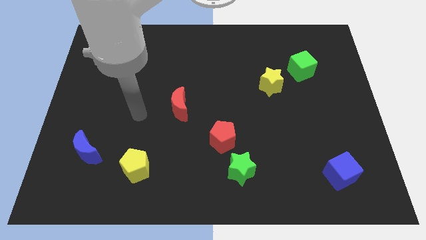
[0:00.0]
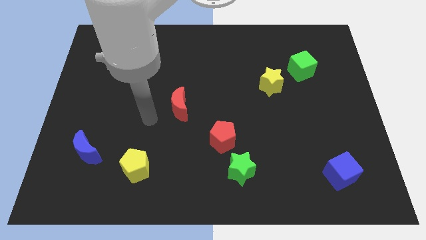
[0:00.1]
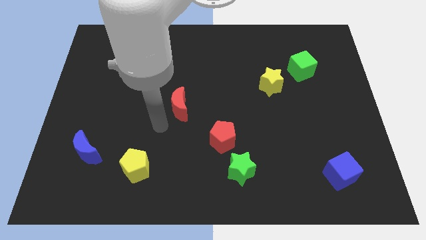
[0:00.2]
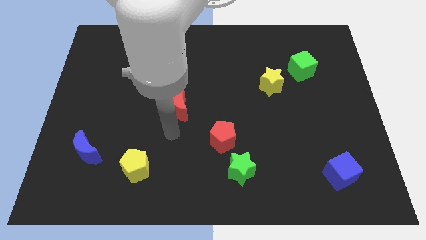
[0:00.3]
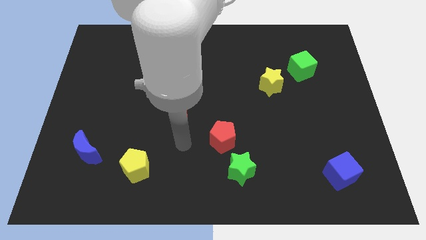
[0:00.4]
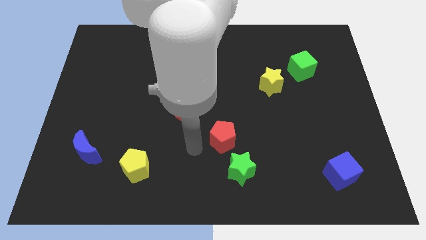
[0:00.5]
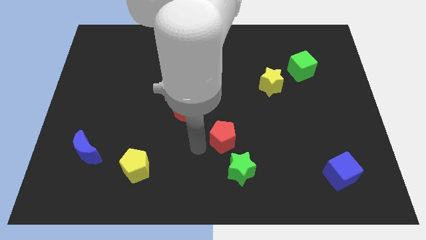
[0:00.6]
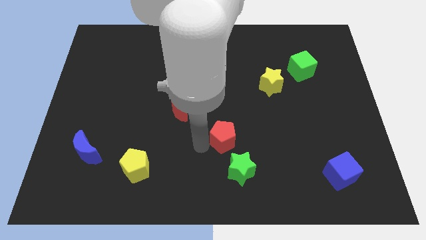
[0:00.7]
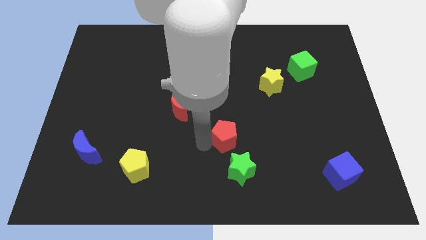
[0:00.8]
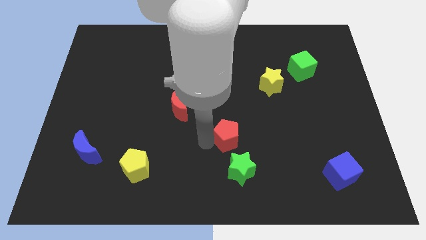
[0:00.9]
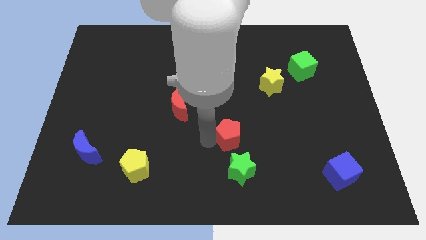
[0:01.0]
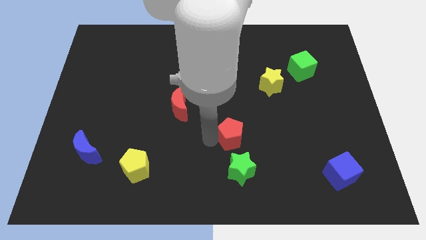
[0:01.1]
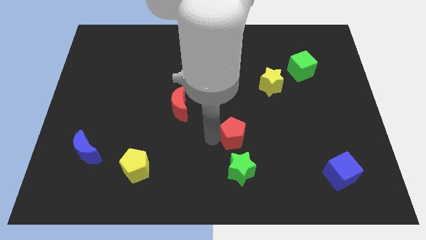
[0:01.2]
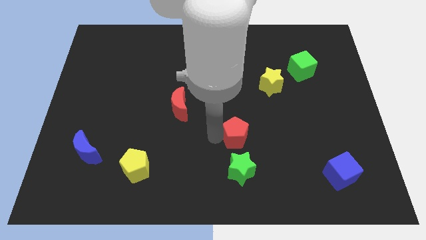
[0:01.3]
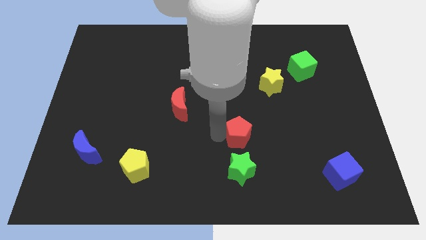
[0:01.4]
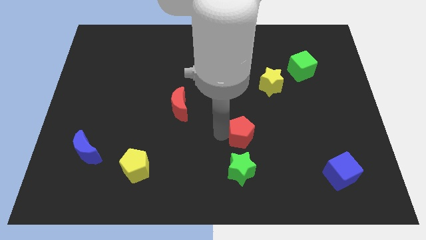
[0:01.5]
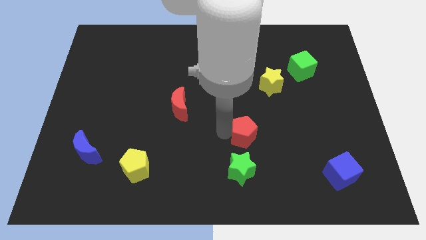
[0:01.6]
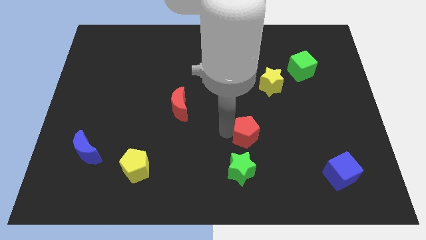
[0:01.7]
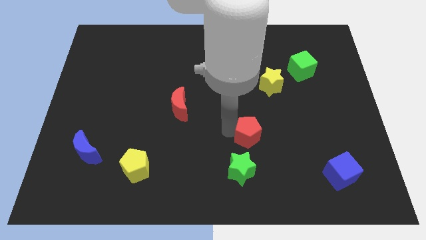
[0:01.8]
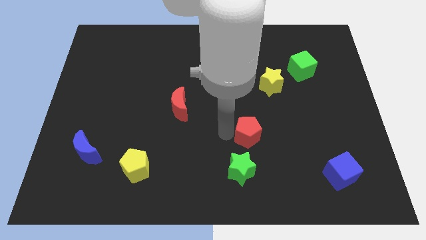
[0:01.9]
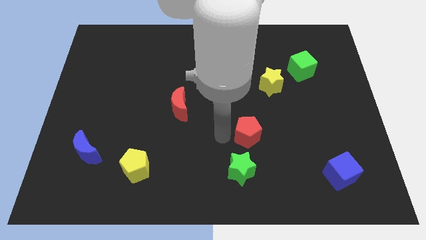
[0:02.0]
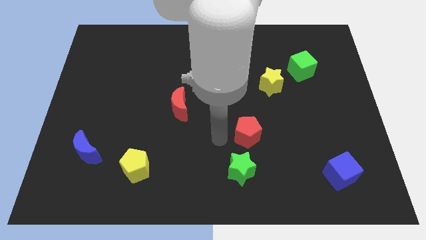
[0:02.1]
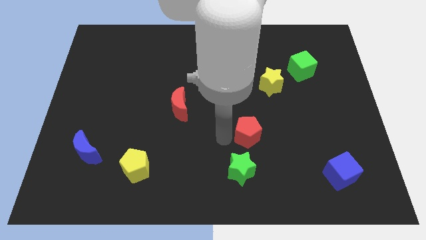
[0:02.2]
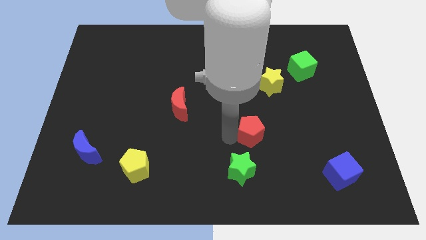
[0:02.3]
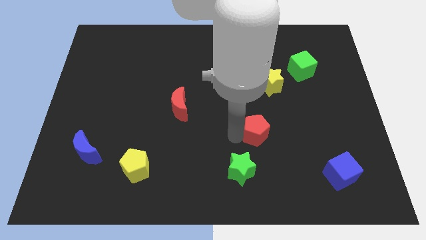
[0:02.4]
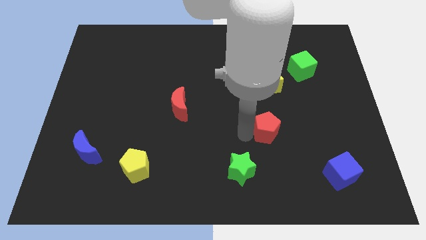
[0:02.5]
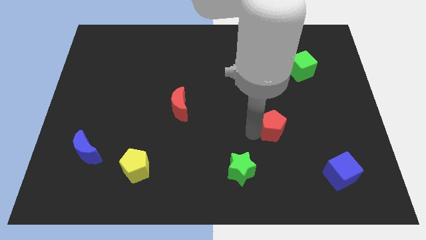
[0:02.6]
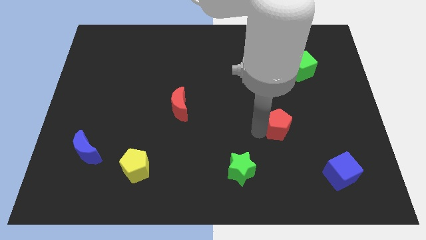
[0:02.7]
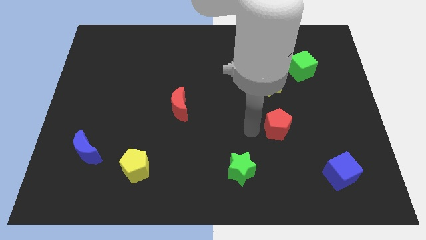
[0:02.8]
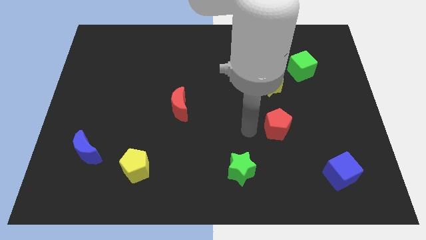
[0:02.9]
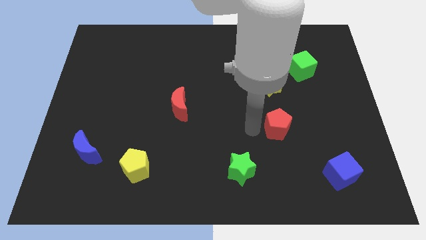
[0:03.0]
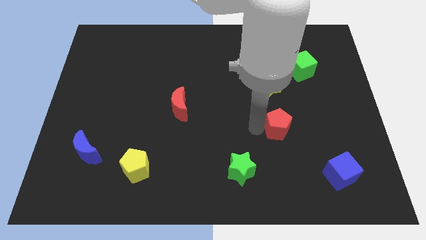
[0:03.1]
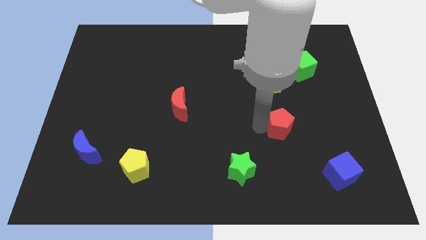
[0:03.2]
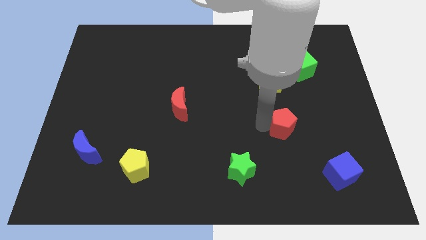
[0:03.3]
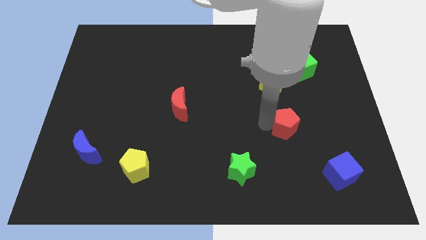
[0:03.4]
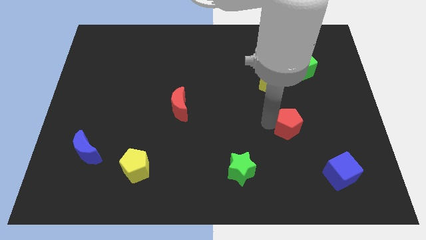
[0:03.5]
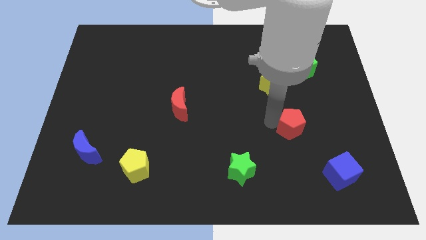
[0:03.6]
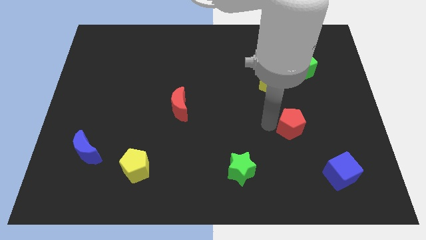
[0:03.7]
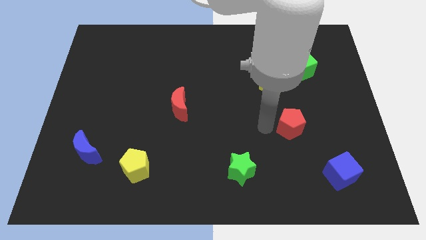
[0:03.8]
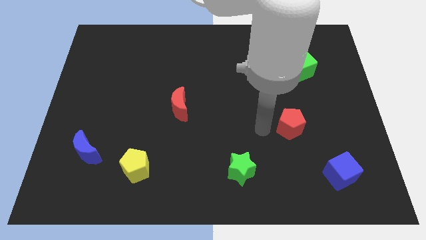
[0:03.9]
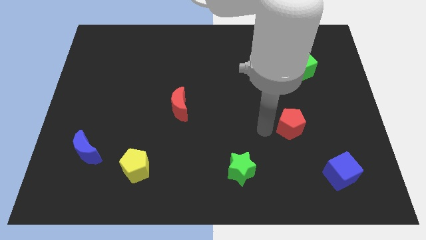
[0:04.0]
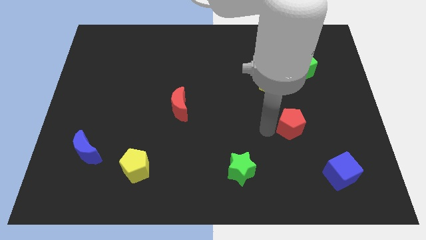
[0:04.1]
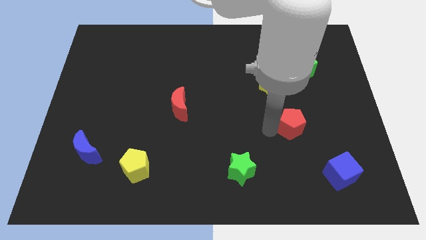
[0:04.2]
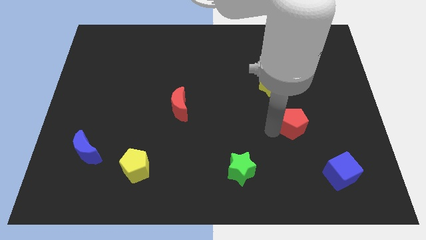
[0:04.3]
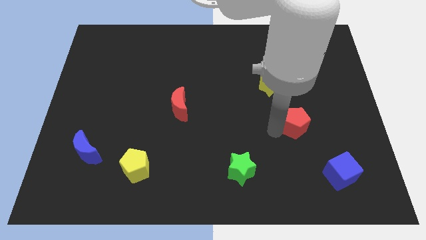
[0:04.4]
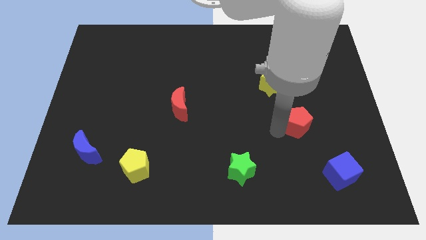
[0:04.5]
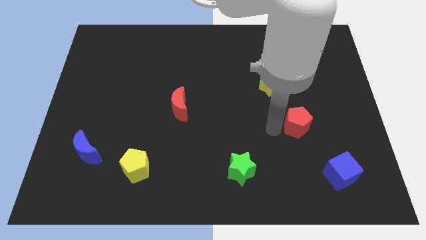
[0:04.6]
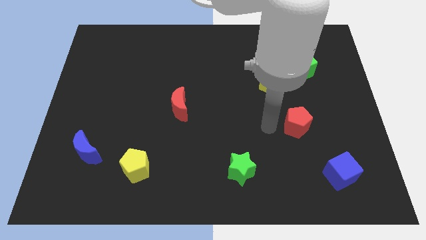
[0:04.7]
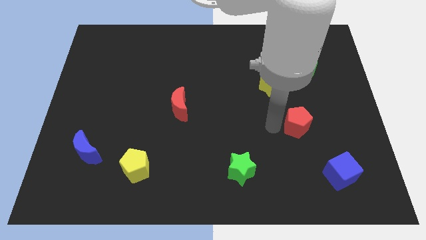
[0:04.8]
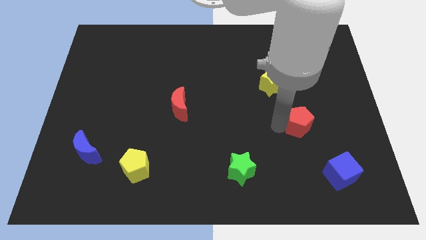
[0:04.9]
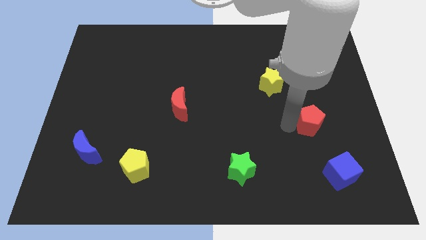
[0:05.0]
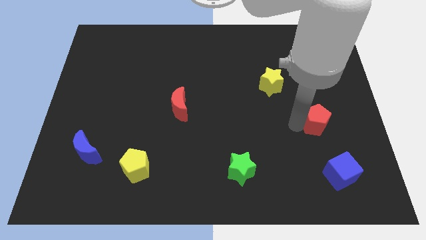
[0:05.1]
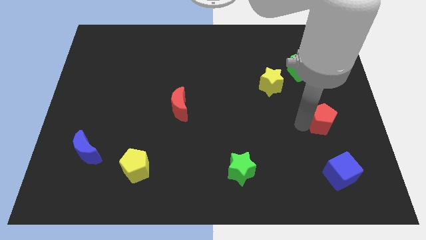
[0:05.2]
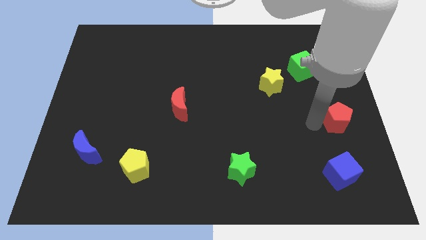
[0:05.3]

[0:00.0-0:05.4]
push the red pentagon to the center right

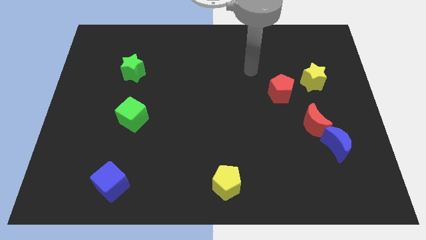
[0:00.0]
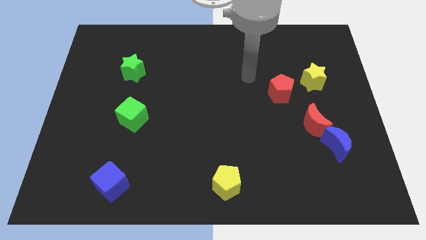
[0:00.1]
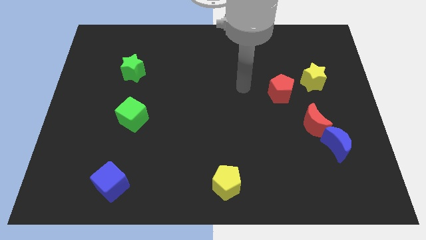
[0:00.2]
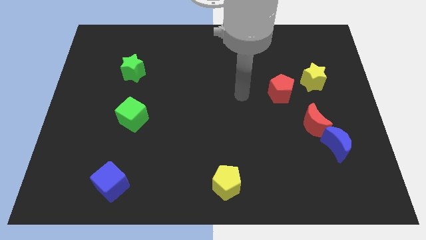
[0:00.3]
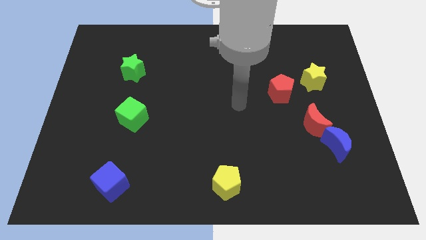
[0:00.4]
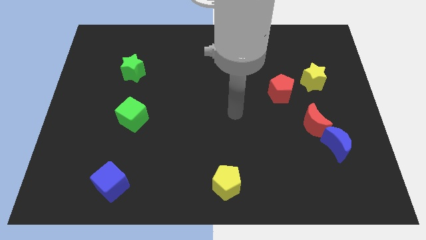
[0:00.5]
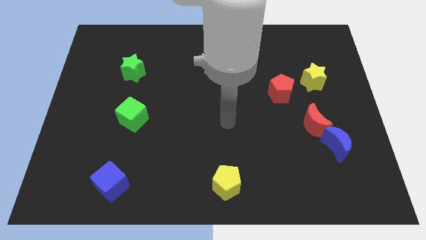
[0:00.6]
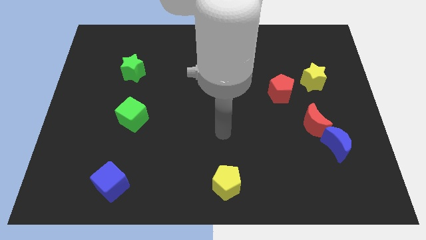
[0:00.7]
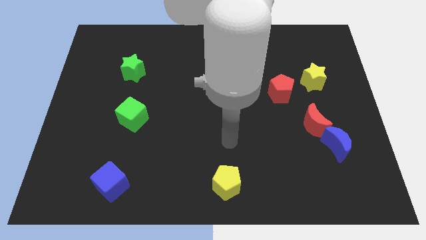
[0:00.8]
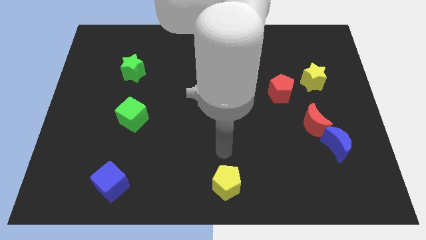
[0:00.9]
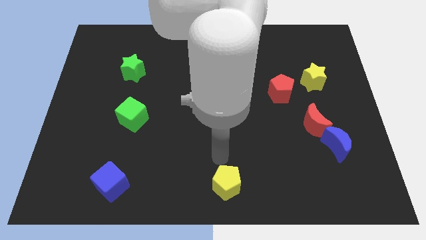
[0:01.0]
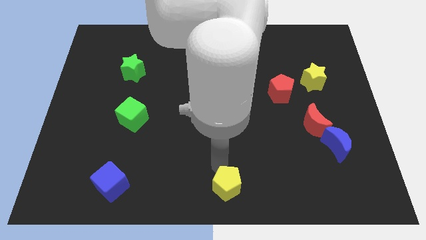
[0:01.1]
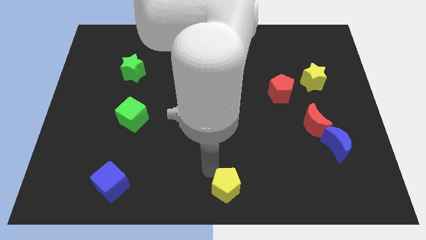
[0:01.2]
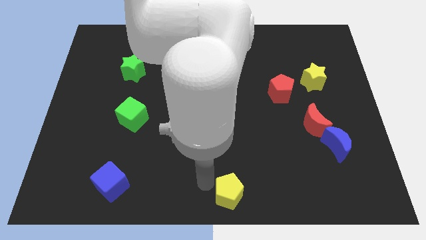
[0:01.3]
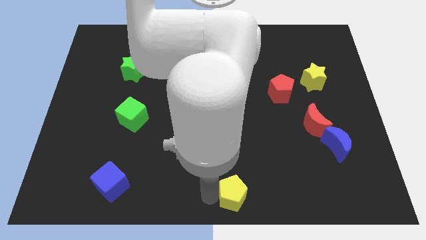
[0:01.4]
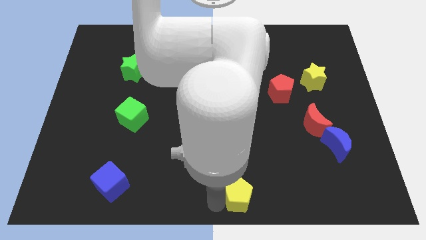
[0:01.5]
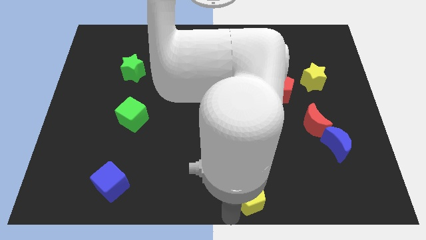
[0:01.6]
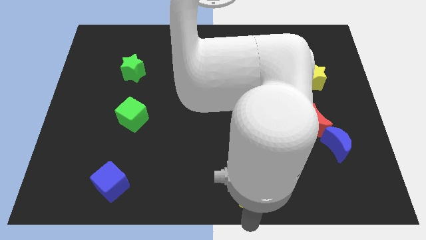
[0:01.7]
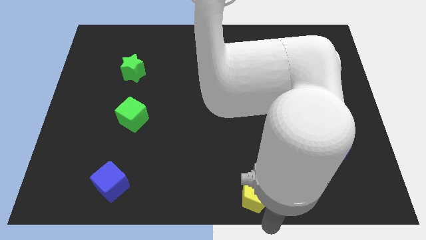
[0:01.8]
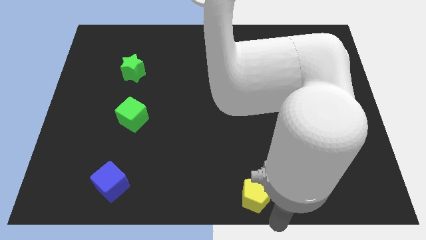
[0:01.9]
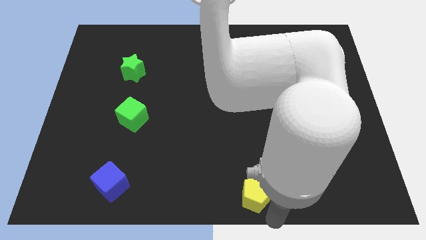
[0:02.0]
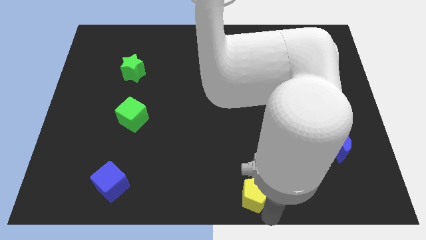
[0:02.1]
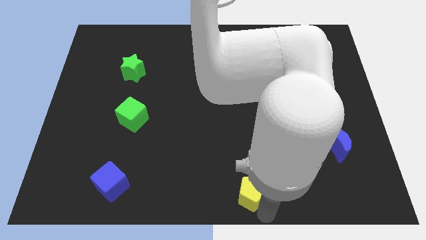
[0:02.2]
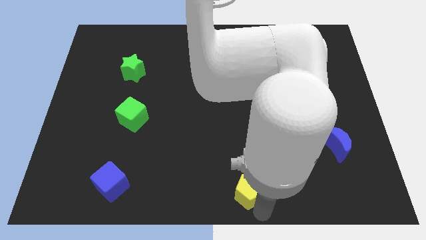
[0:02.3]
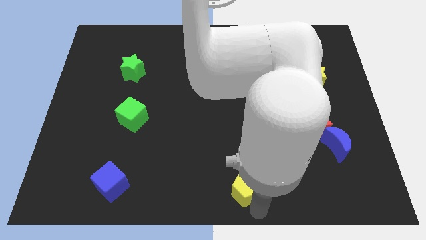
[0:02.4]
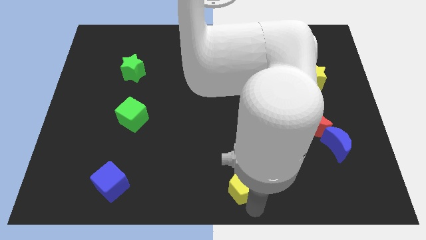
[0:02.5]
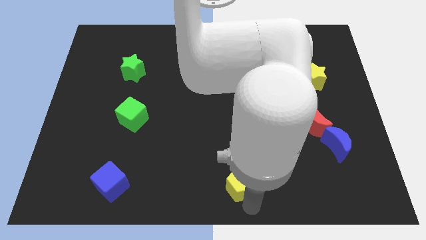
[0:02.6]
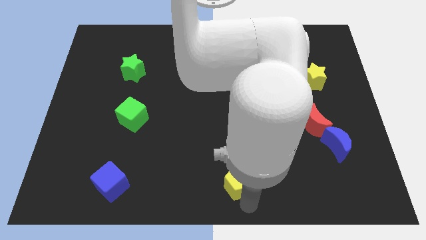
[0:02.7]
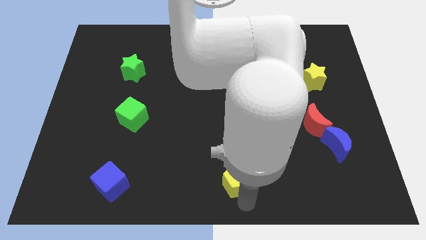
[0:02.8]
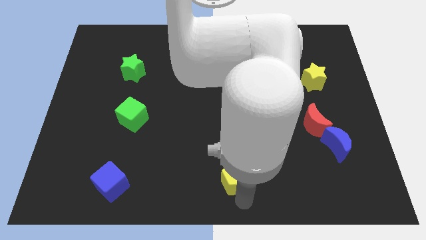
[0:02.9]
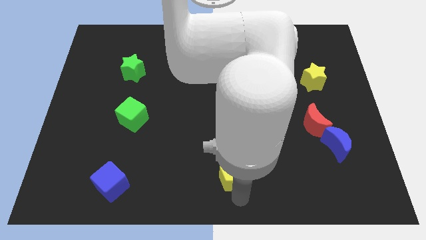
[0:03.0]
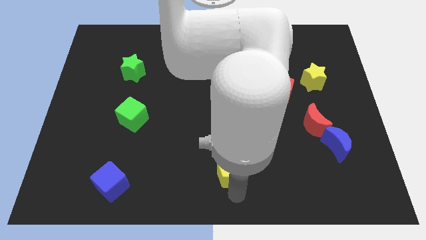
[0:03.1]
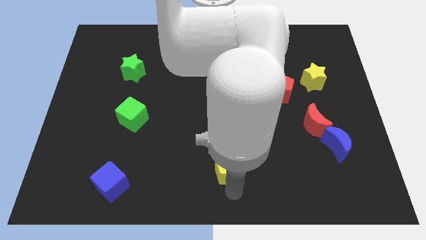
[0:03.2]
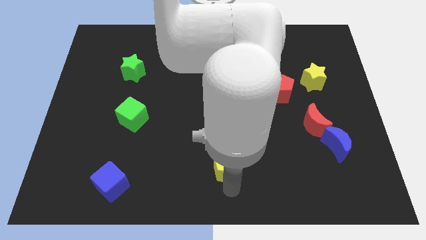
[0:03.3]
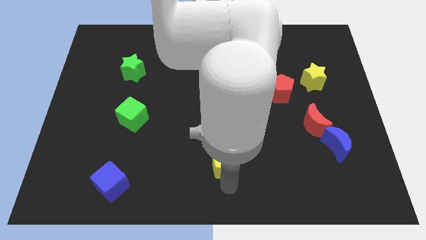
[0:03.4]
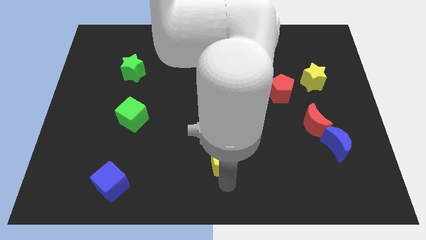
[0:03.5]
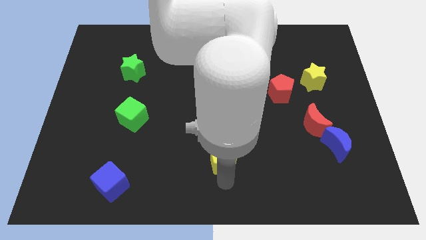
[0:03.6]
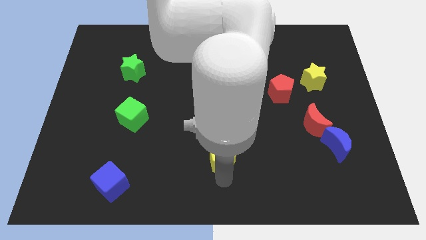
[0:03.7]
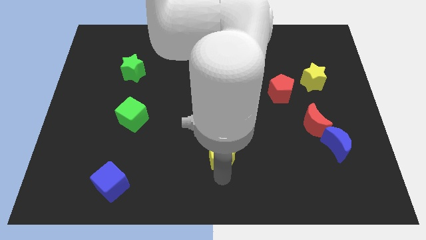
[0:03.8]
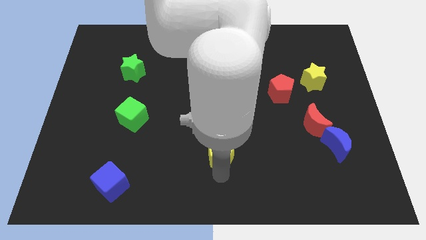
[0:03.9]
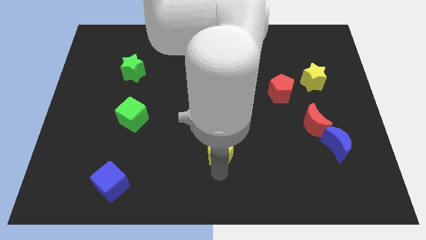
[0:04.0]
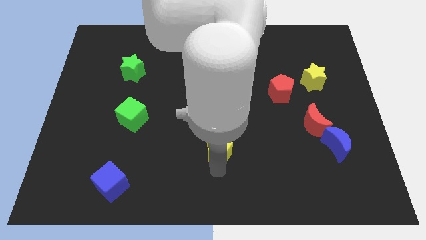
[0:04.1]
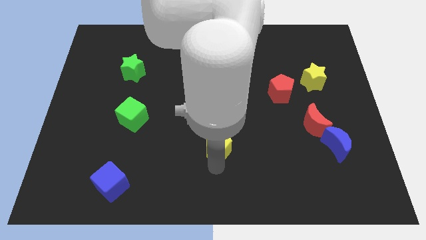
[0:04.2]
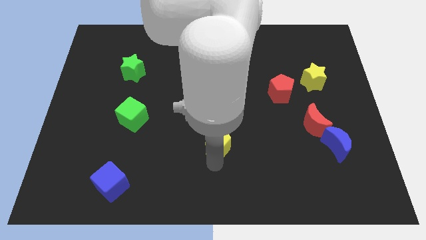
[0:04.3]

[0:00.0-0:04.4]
slide the yellow pentagon to the center of the board
